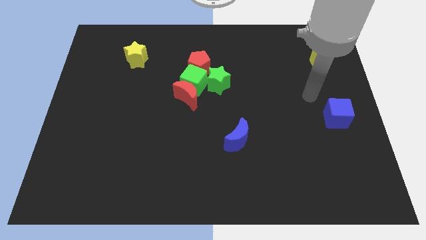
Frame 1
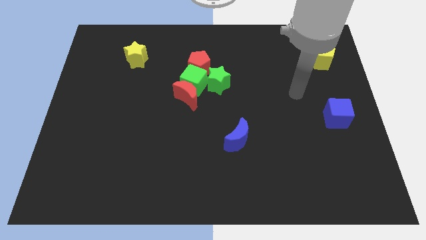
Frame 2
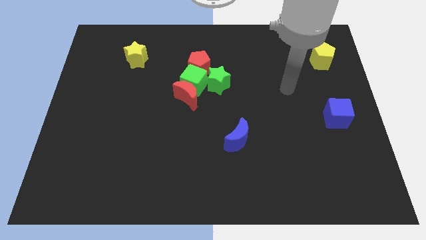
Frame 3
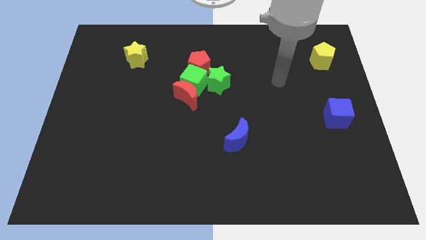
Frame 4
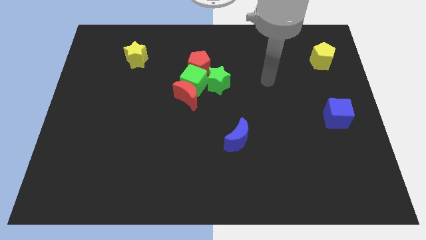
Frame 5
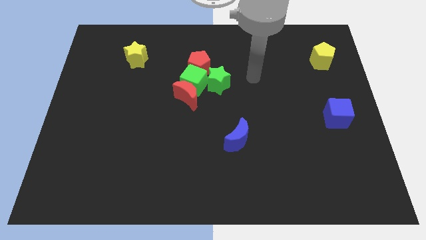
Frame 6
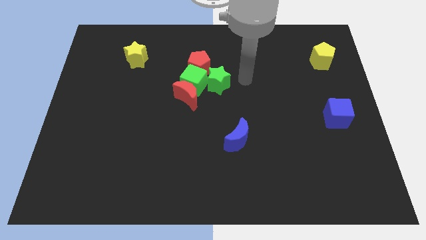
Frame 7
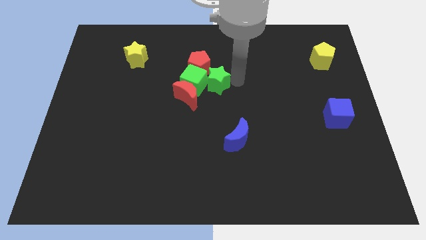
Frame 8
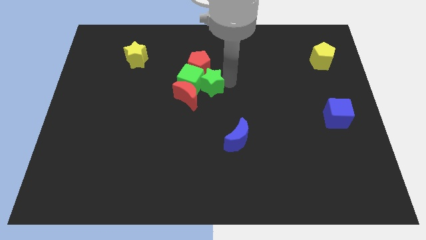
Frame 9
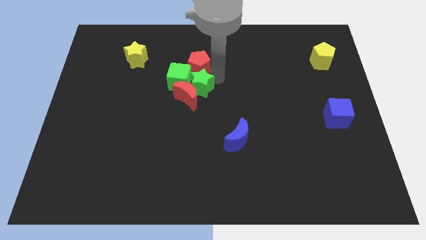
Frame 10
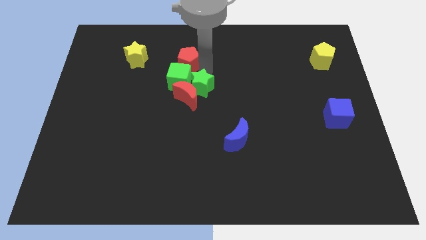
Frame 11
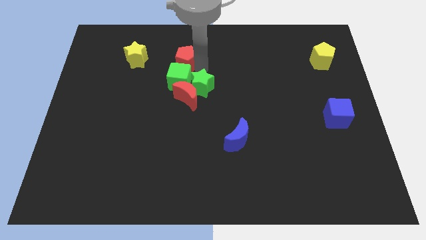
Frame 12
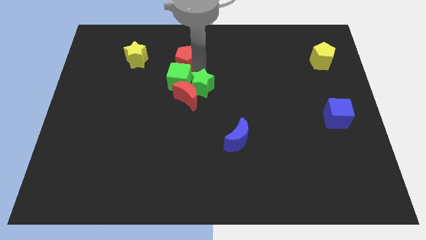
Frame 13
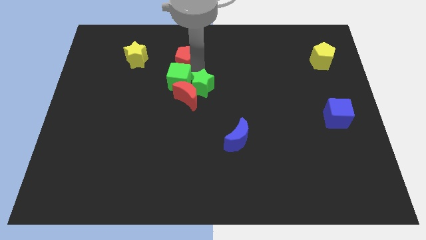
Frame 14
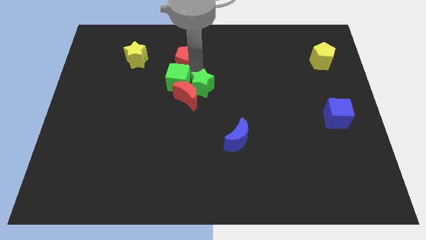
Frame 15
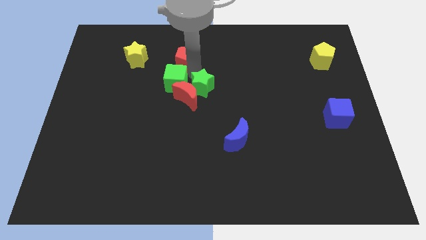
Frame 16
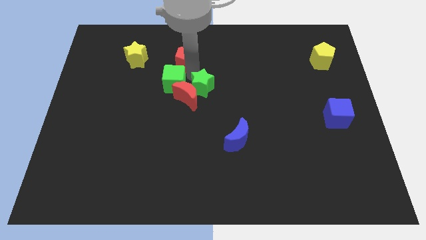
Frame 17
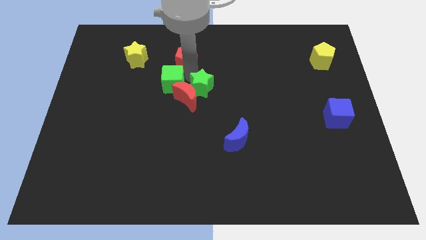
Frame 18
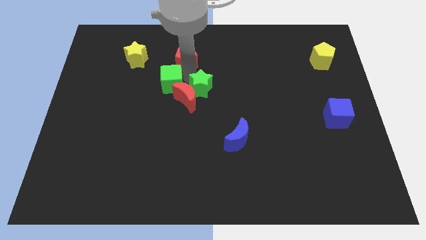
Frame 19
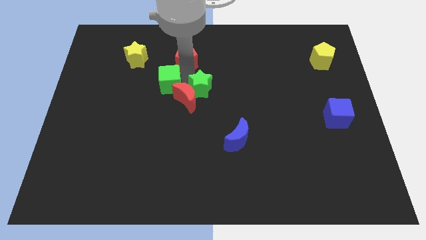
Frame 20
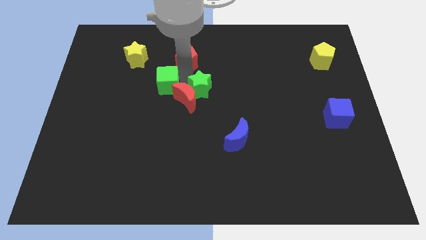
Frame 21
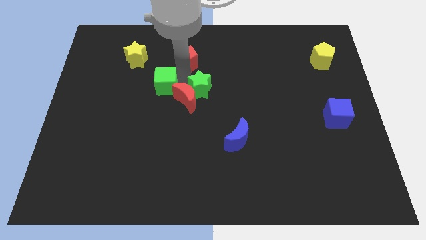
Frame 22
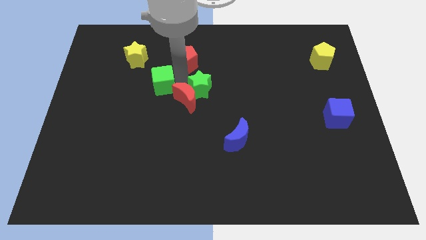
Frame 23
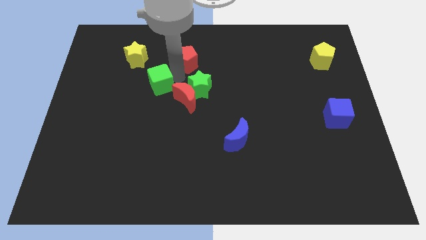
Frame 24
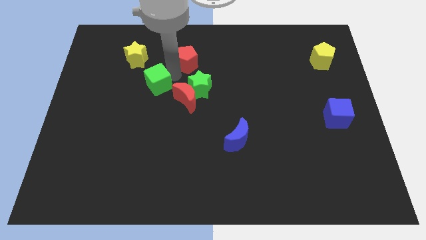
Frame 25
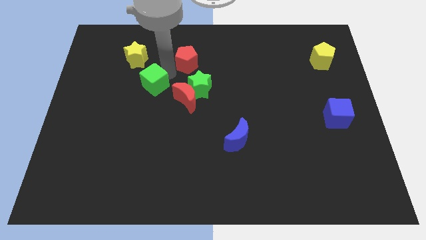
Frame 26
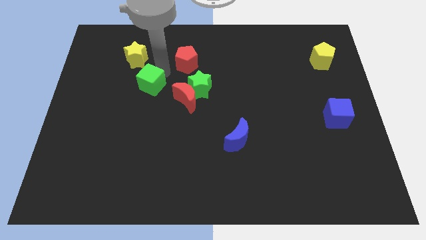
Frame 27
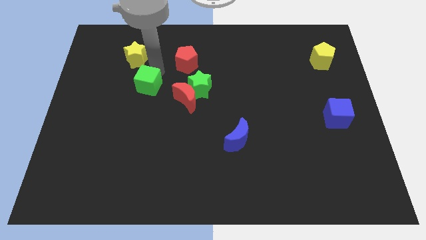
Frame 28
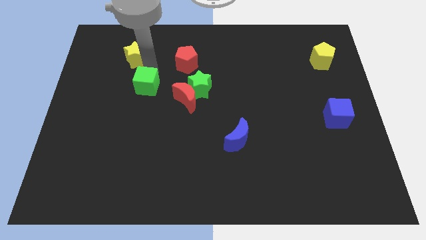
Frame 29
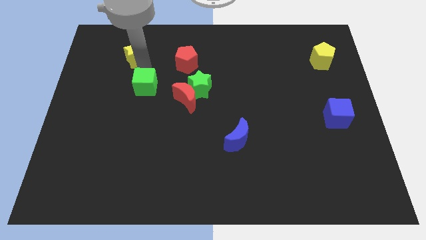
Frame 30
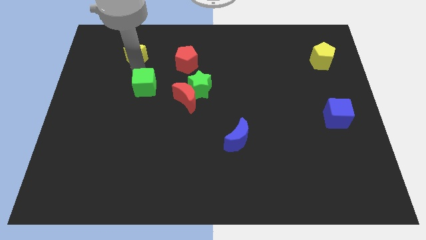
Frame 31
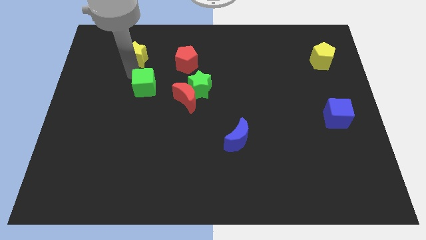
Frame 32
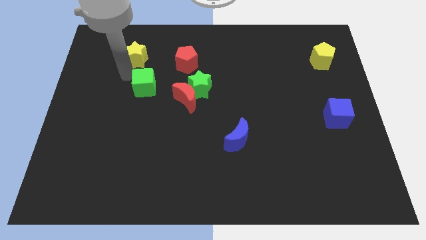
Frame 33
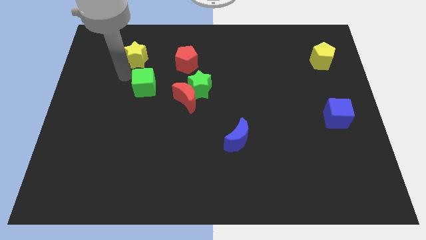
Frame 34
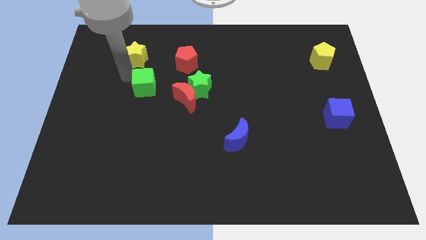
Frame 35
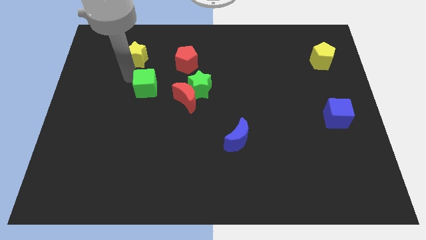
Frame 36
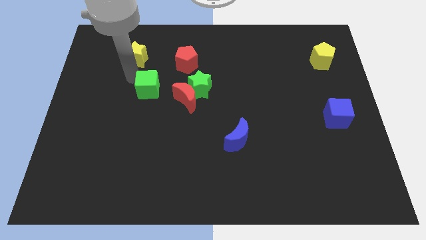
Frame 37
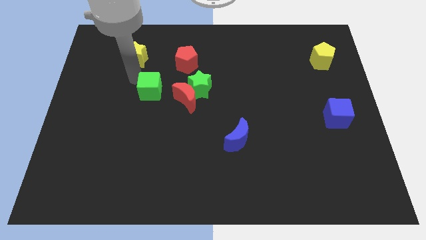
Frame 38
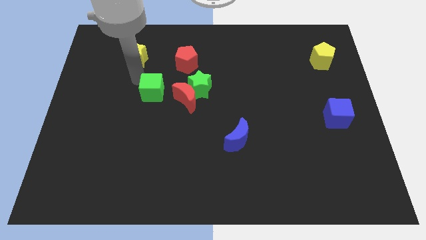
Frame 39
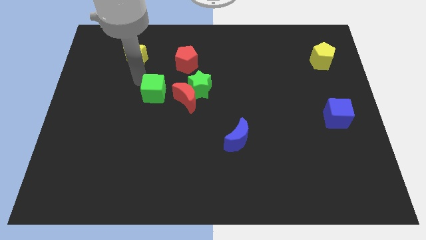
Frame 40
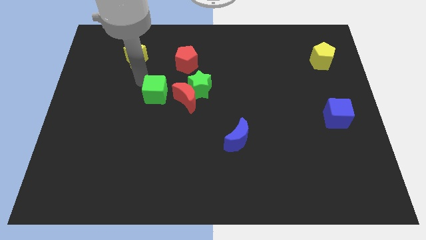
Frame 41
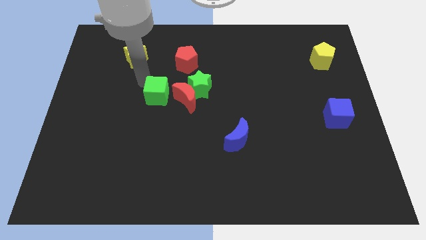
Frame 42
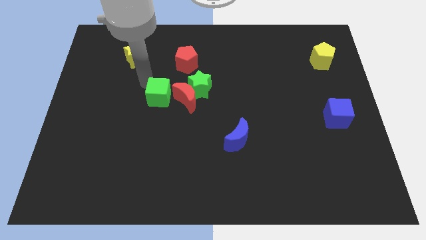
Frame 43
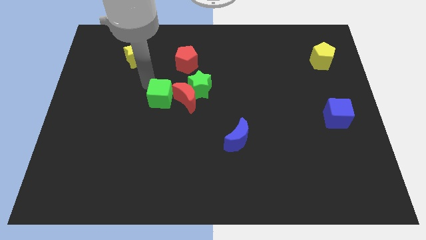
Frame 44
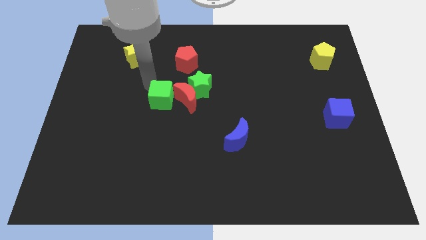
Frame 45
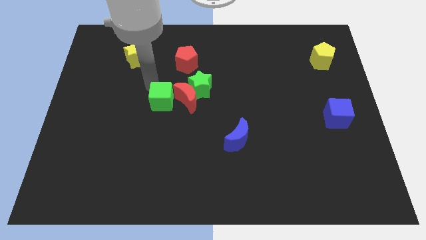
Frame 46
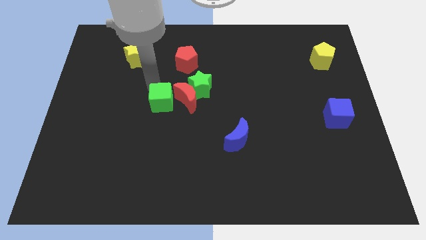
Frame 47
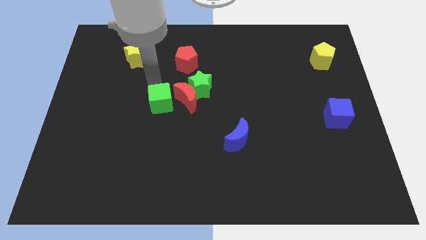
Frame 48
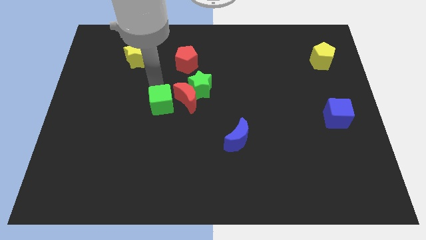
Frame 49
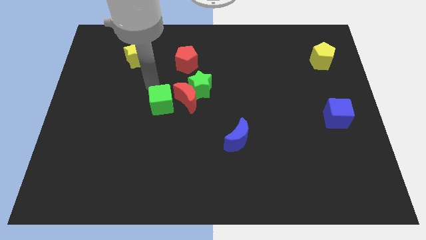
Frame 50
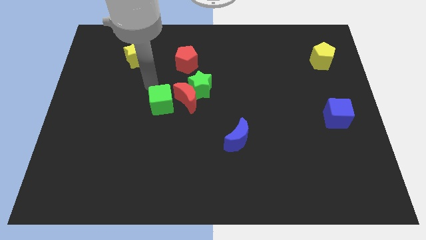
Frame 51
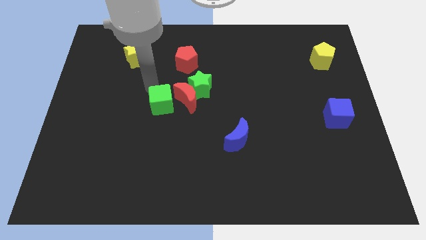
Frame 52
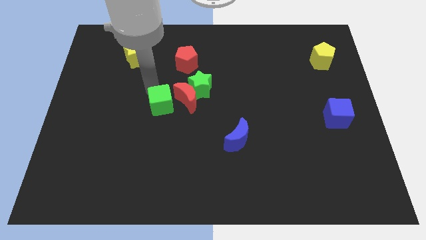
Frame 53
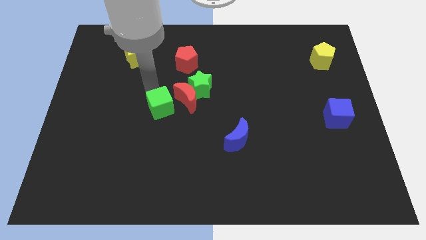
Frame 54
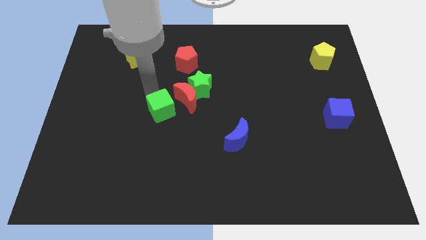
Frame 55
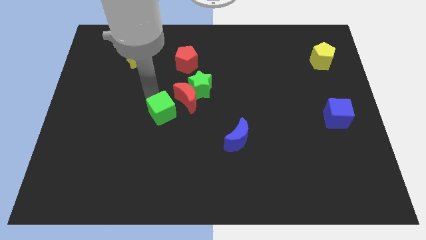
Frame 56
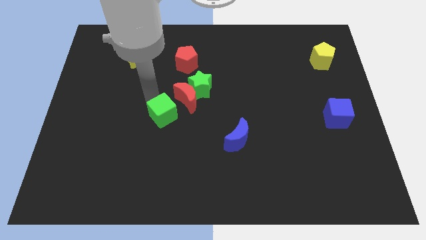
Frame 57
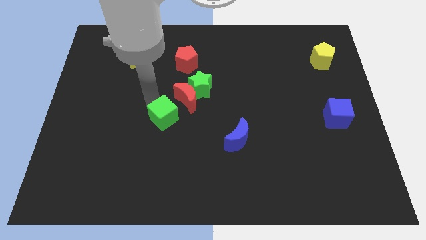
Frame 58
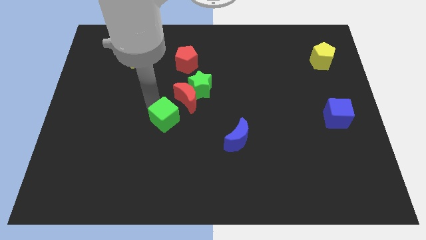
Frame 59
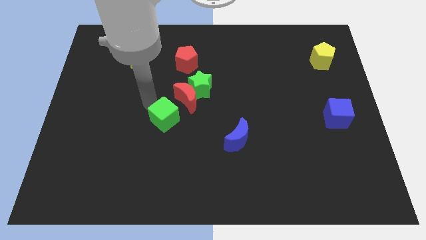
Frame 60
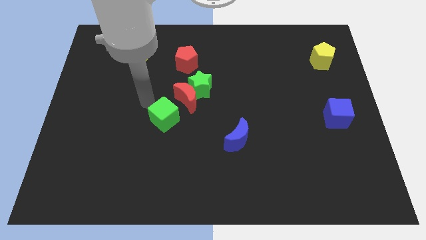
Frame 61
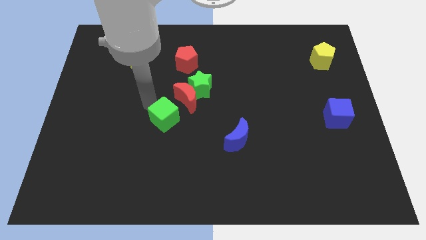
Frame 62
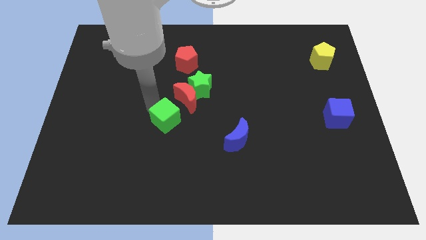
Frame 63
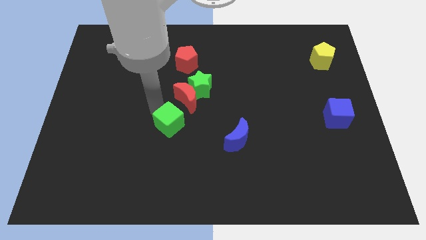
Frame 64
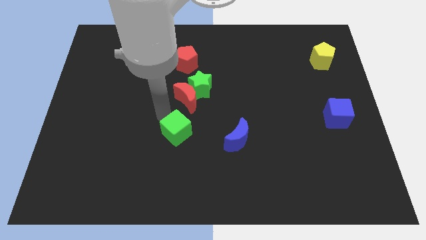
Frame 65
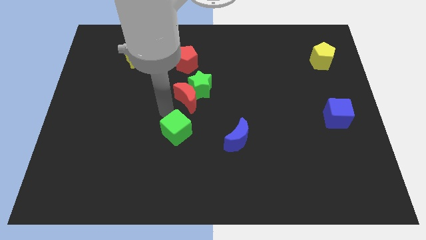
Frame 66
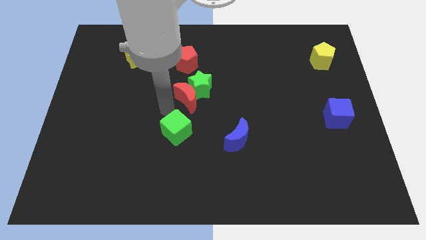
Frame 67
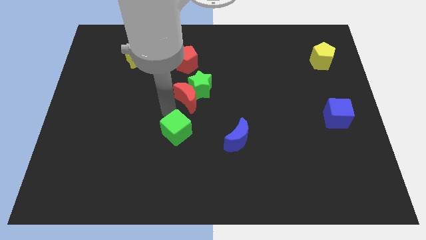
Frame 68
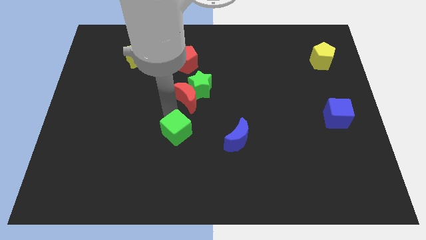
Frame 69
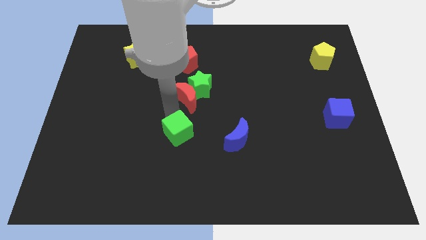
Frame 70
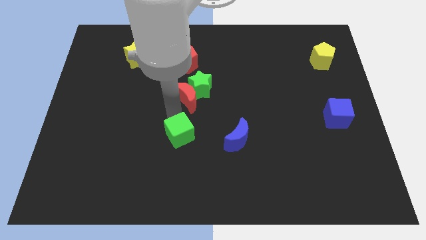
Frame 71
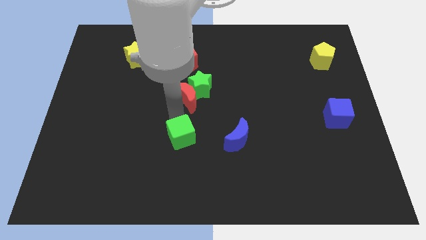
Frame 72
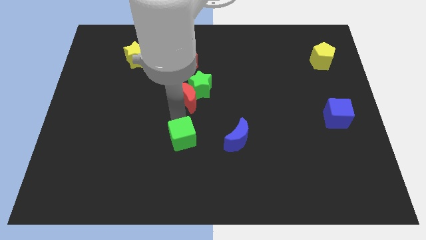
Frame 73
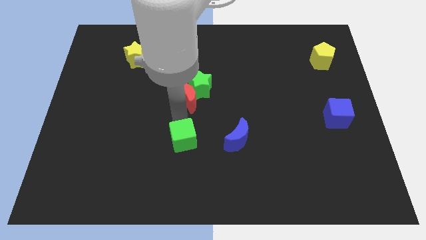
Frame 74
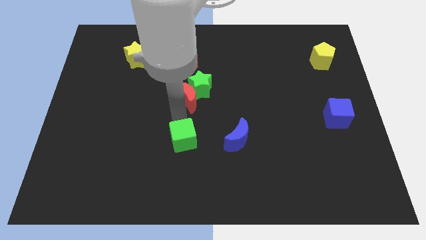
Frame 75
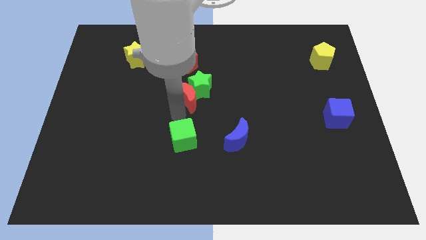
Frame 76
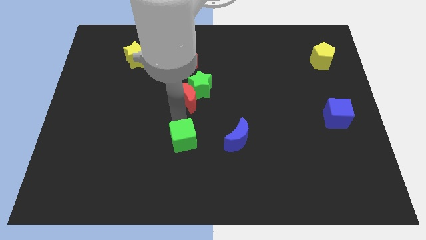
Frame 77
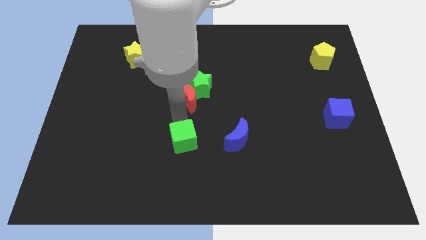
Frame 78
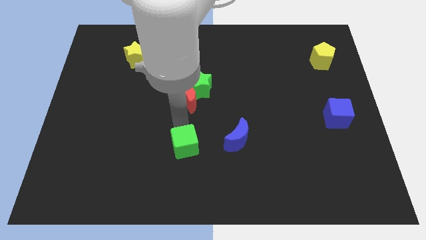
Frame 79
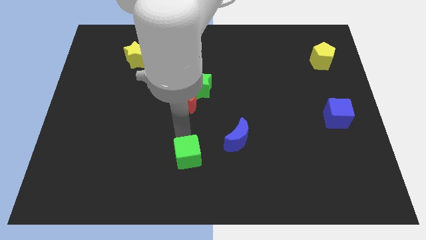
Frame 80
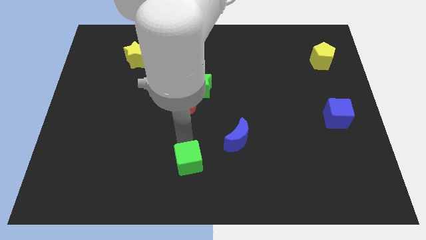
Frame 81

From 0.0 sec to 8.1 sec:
move the green cube to the bottom
